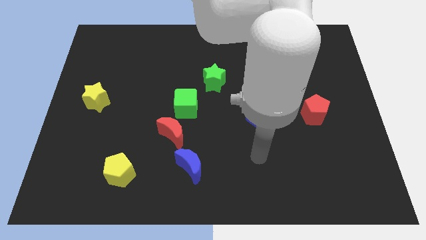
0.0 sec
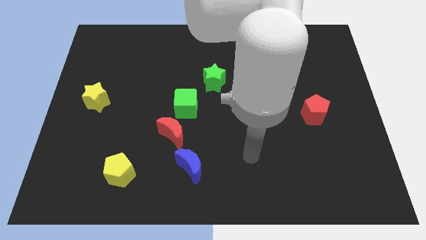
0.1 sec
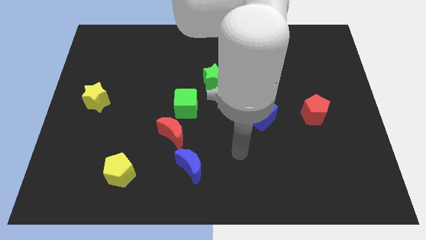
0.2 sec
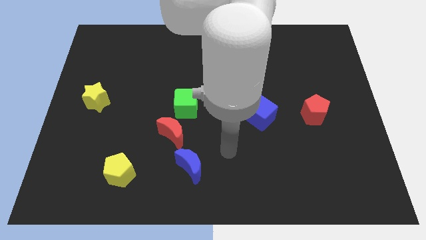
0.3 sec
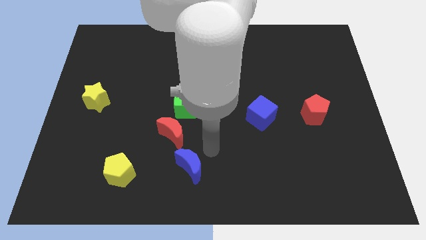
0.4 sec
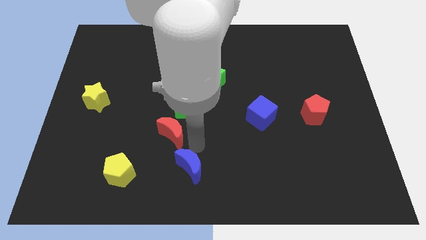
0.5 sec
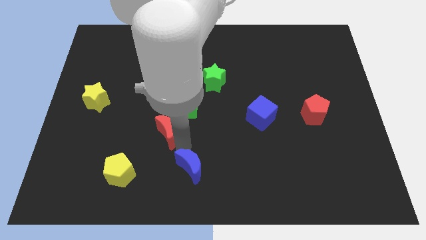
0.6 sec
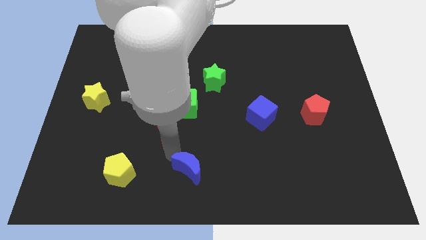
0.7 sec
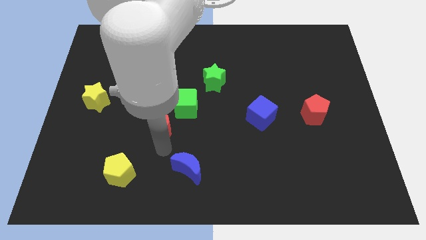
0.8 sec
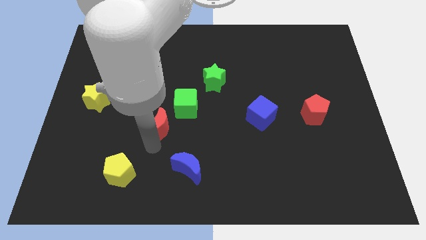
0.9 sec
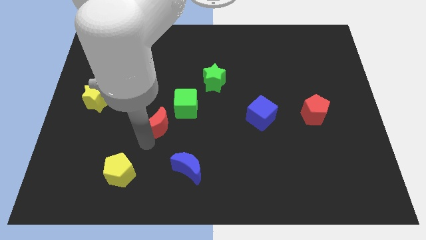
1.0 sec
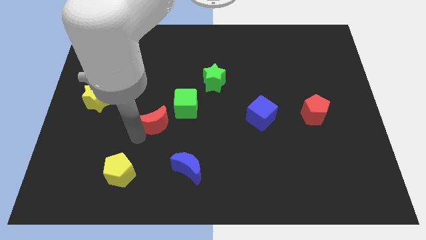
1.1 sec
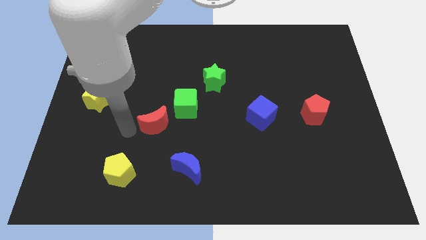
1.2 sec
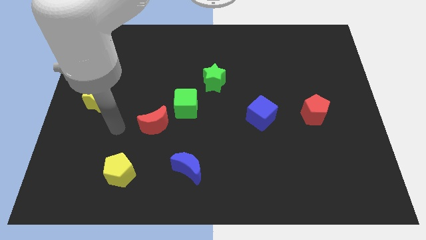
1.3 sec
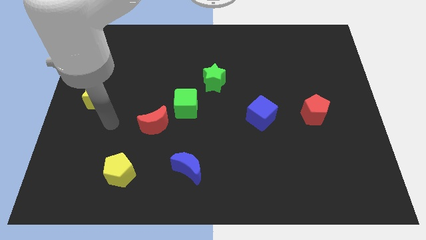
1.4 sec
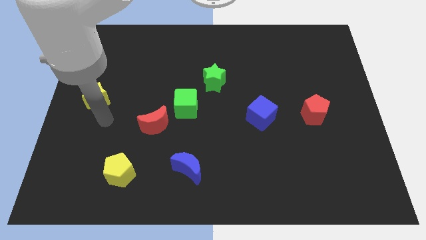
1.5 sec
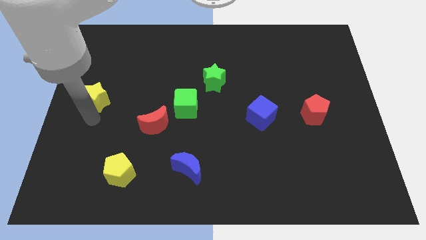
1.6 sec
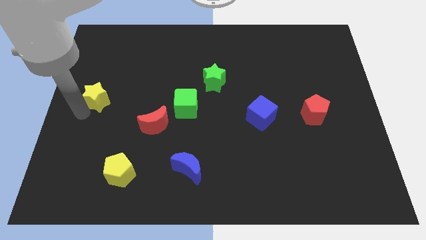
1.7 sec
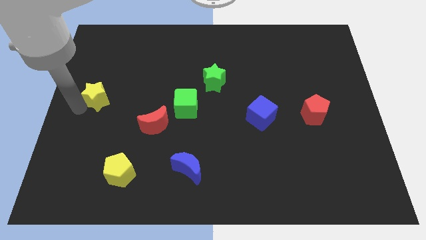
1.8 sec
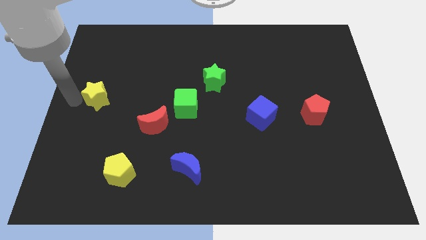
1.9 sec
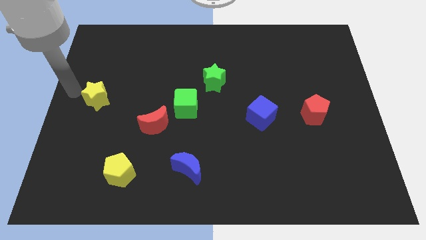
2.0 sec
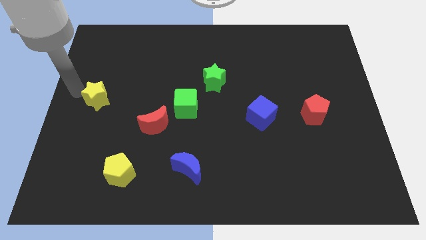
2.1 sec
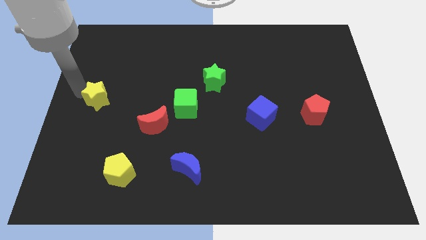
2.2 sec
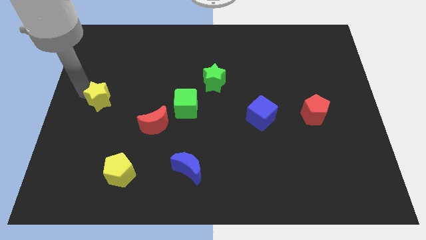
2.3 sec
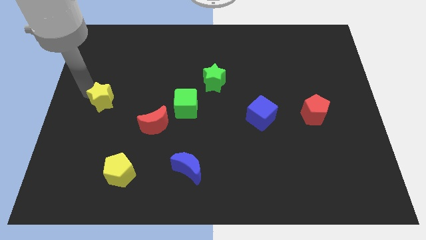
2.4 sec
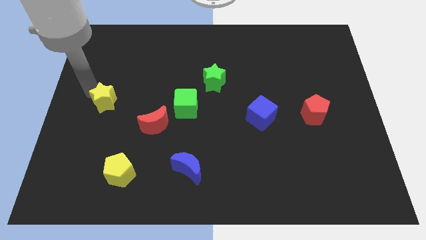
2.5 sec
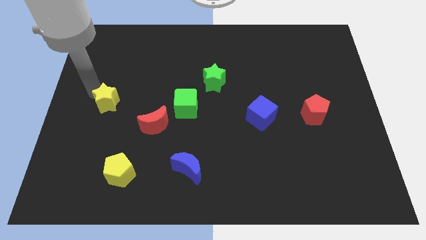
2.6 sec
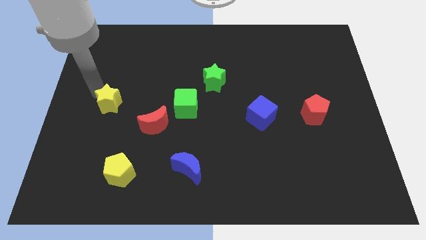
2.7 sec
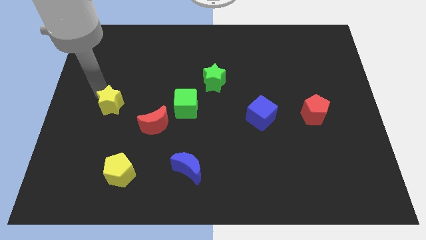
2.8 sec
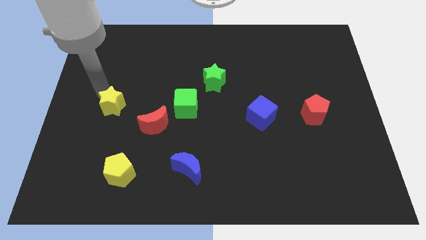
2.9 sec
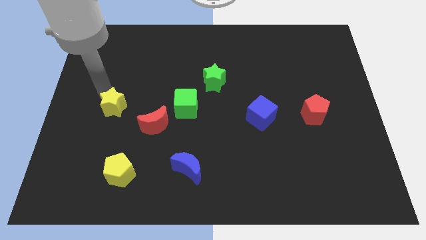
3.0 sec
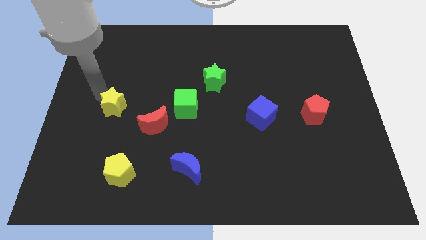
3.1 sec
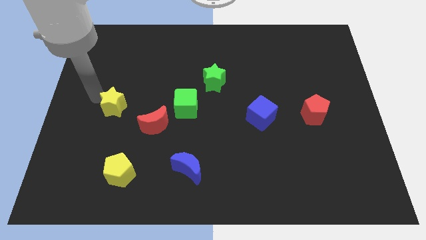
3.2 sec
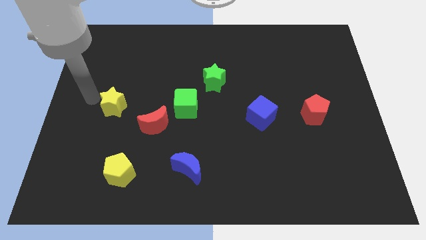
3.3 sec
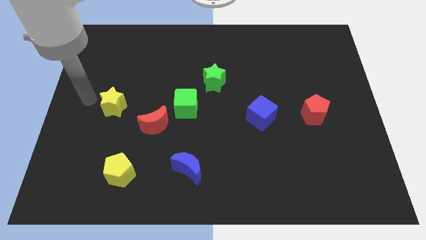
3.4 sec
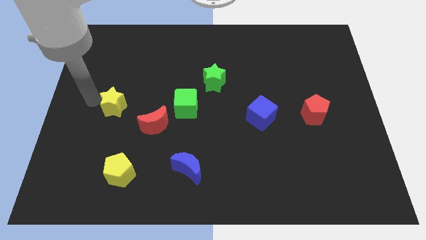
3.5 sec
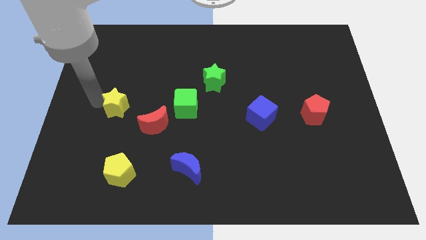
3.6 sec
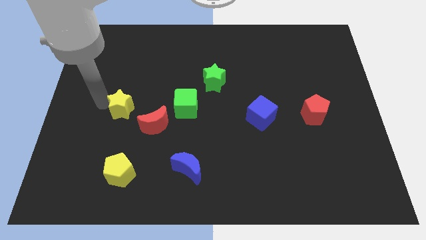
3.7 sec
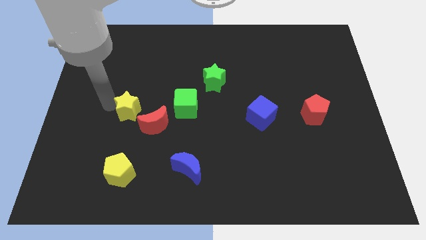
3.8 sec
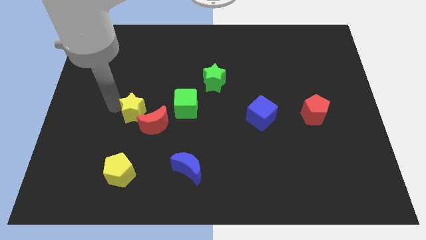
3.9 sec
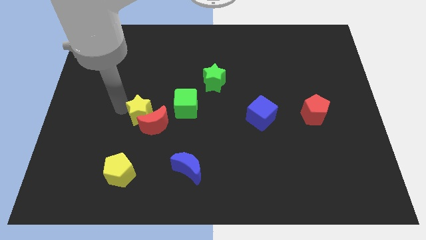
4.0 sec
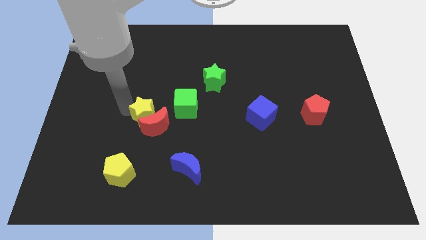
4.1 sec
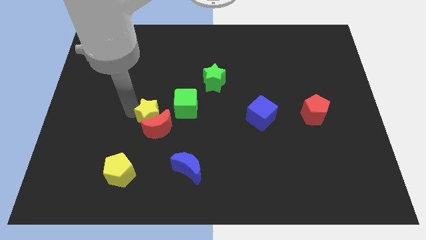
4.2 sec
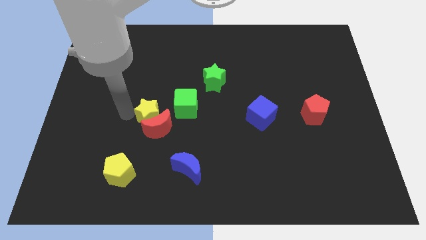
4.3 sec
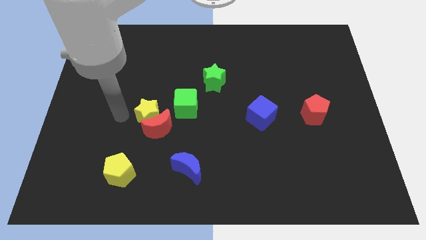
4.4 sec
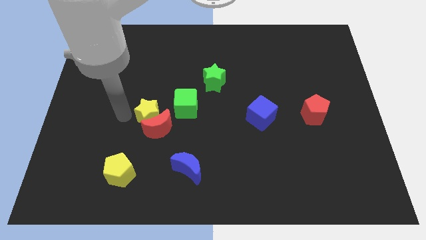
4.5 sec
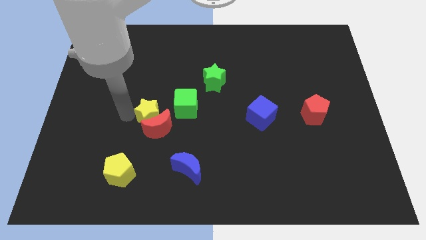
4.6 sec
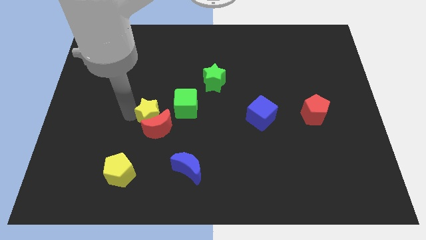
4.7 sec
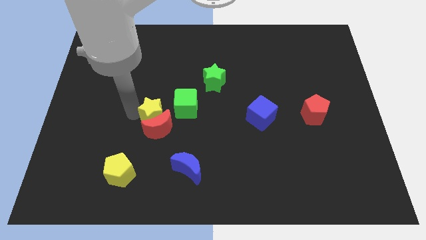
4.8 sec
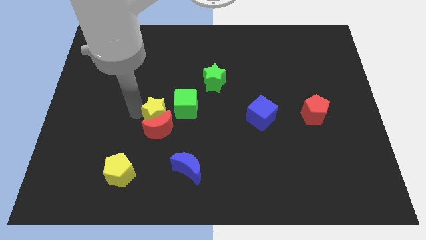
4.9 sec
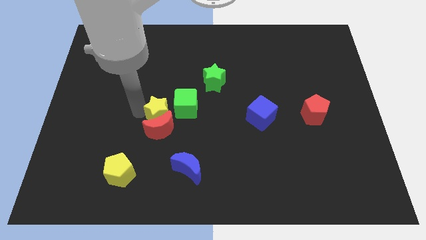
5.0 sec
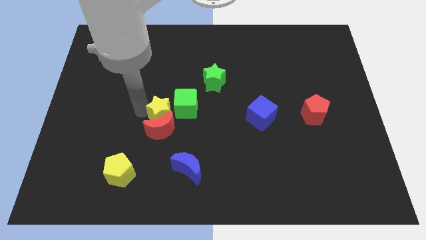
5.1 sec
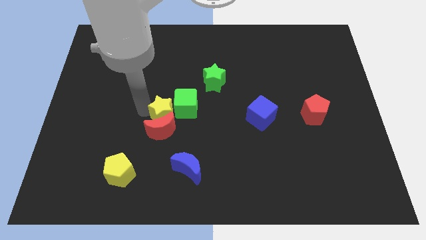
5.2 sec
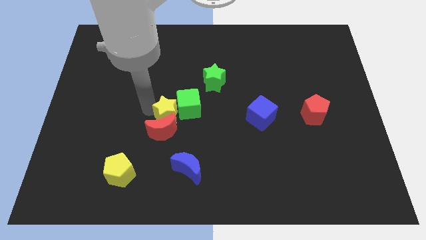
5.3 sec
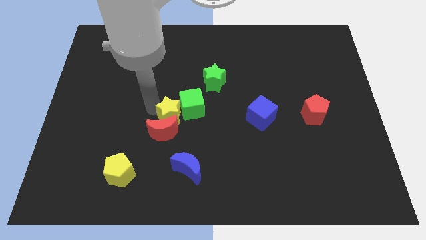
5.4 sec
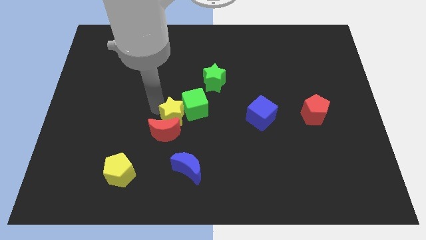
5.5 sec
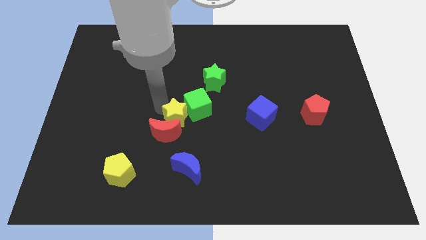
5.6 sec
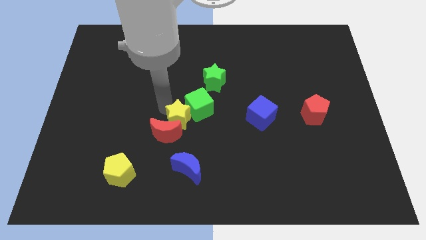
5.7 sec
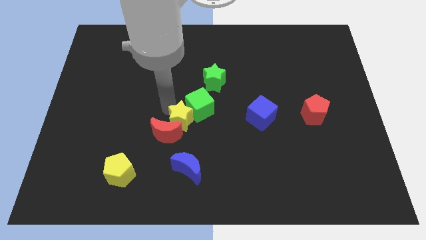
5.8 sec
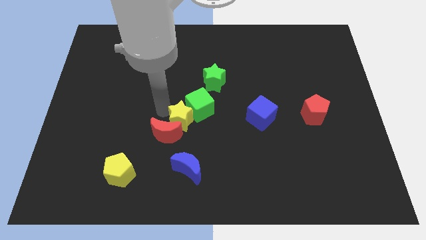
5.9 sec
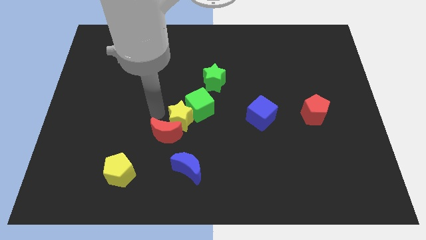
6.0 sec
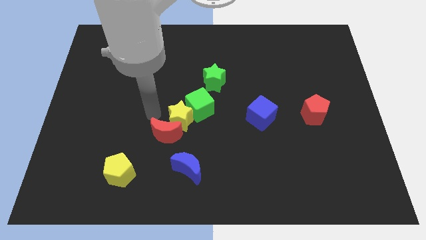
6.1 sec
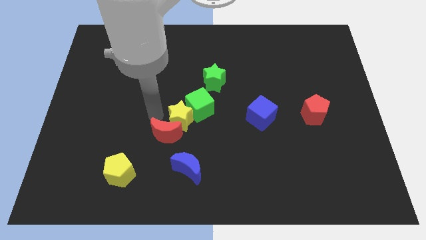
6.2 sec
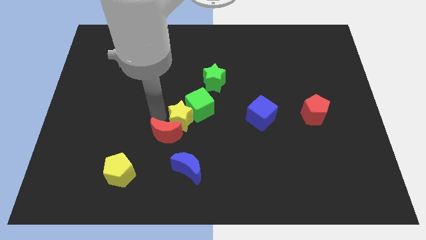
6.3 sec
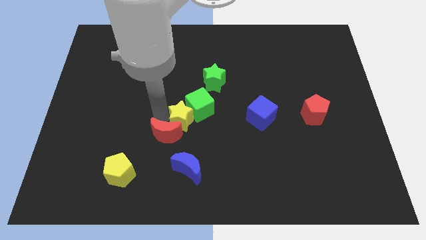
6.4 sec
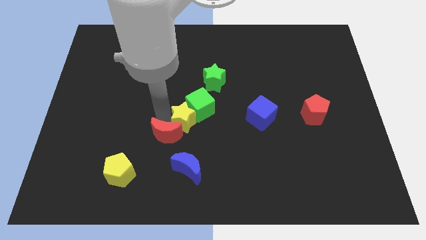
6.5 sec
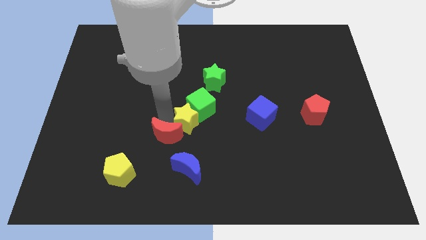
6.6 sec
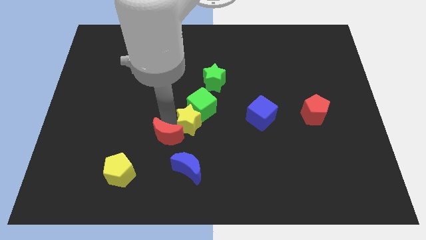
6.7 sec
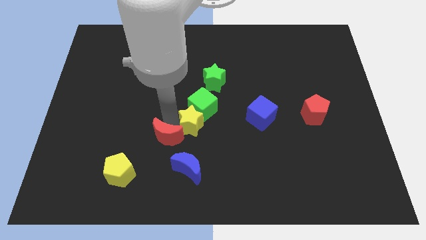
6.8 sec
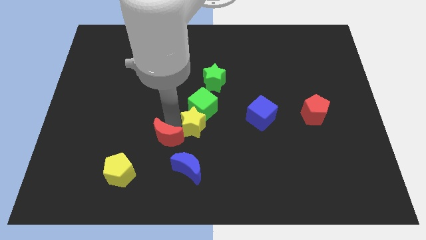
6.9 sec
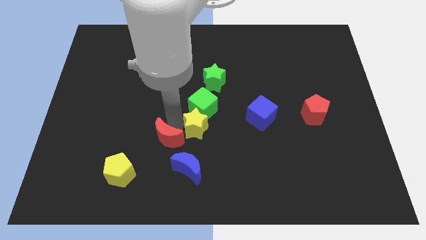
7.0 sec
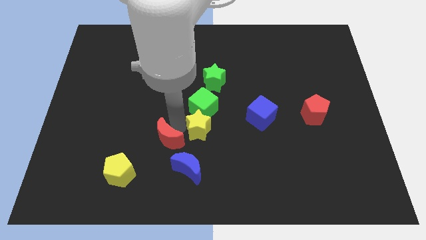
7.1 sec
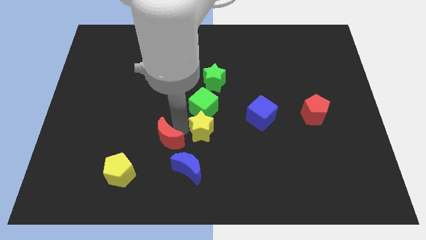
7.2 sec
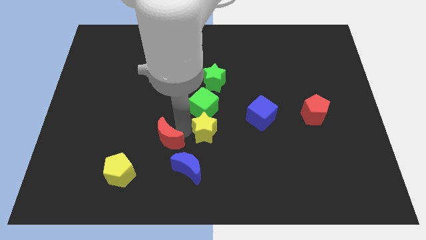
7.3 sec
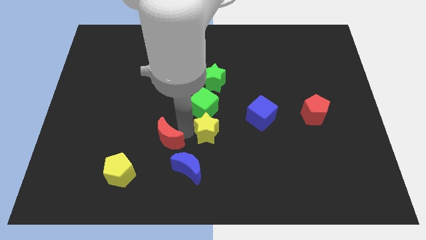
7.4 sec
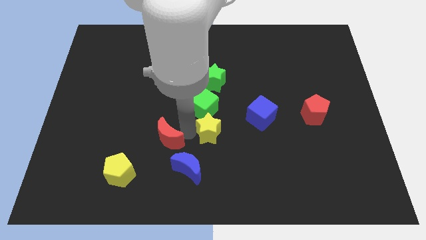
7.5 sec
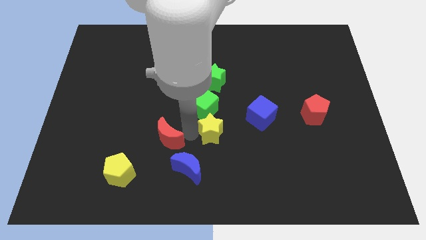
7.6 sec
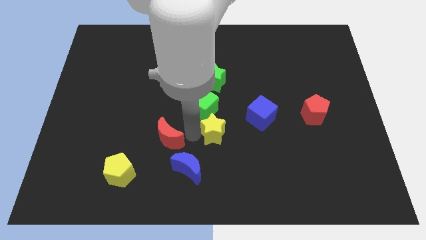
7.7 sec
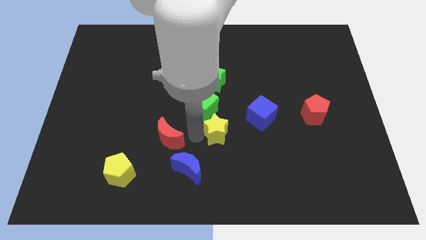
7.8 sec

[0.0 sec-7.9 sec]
put the yellow star diagonally down and to the left of the blue cube

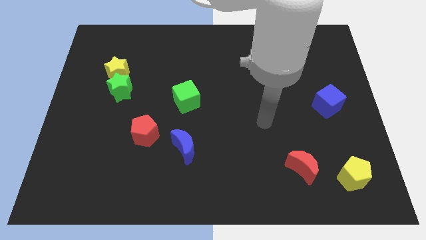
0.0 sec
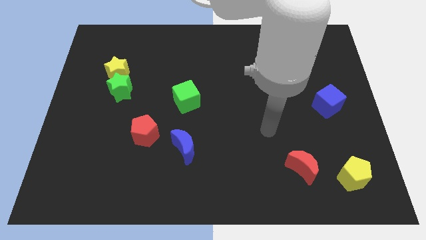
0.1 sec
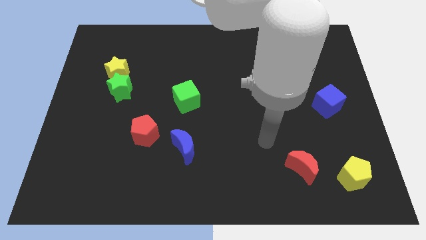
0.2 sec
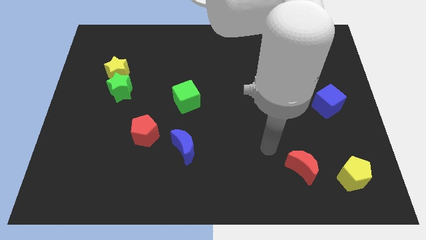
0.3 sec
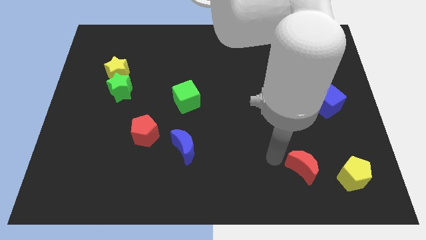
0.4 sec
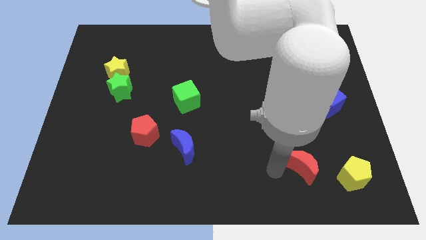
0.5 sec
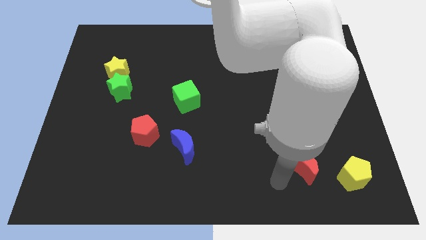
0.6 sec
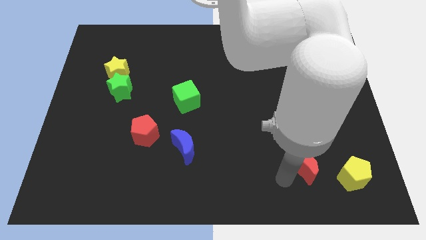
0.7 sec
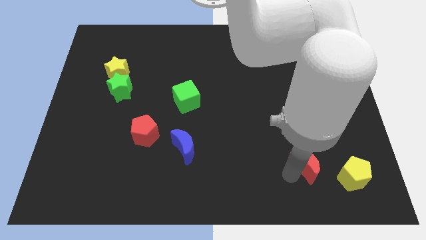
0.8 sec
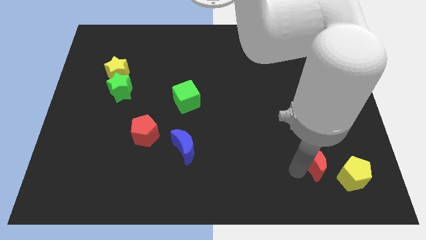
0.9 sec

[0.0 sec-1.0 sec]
move the red moon to the top left of the yellow pentagon
